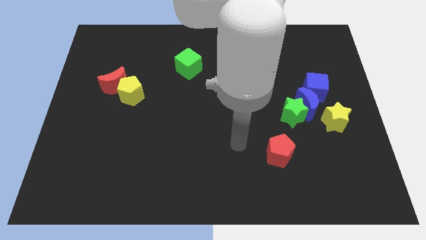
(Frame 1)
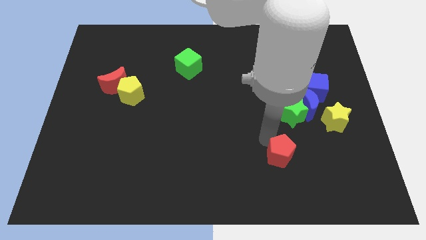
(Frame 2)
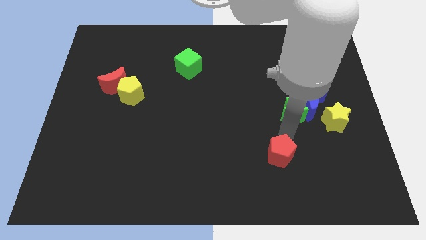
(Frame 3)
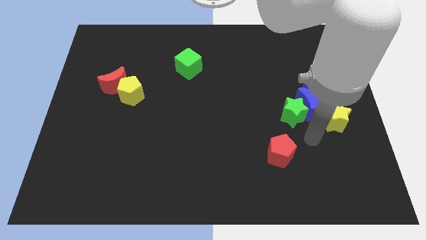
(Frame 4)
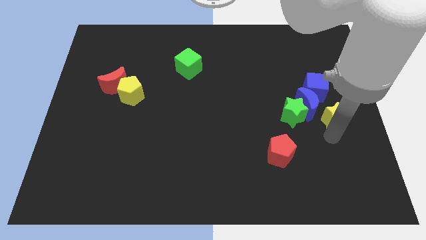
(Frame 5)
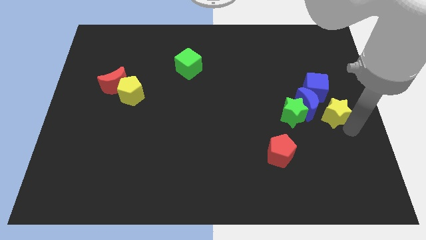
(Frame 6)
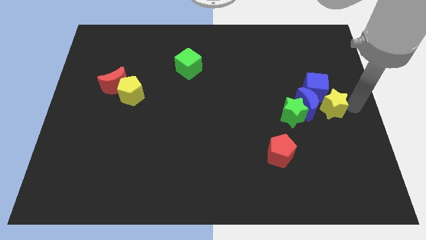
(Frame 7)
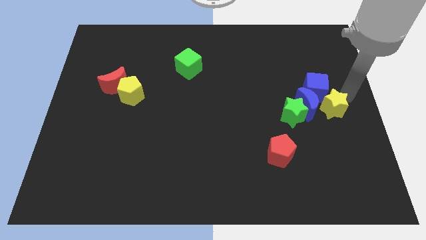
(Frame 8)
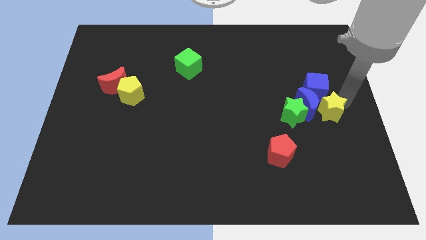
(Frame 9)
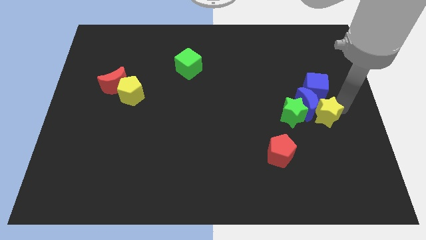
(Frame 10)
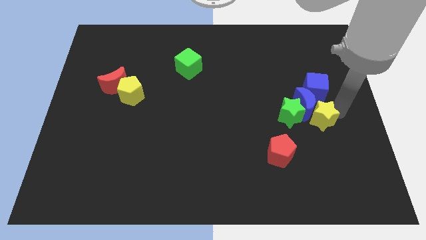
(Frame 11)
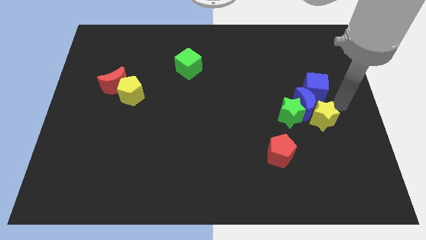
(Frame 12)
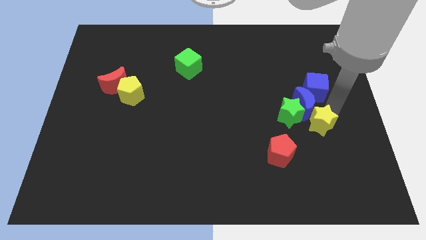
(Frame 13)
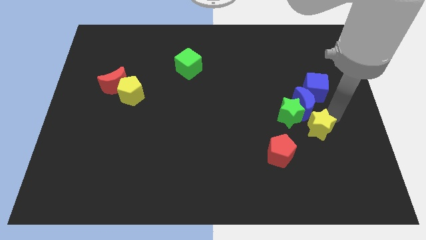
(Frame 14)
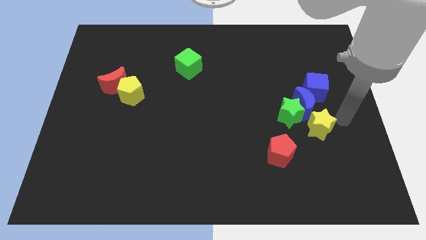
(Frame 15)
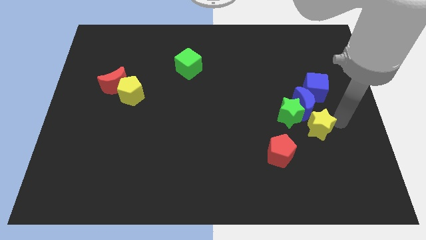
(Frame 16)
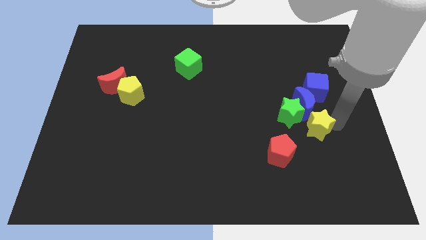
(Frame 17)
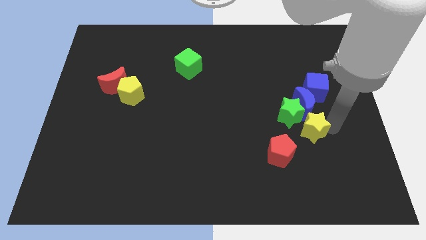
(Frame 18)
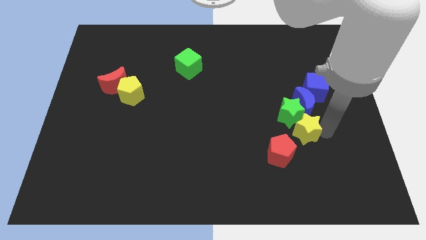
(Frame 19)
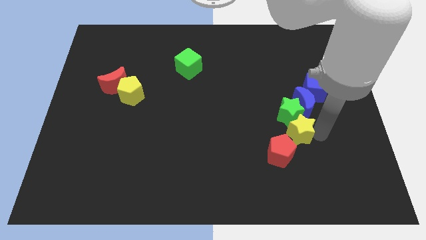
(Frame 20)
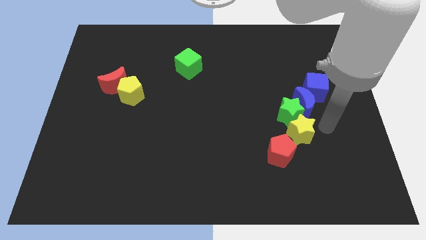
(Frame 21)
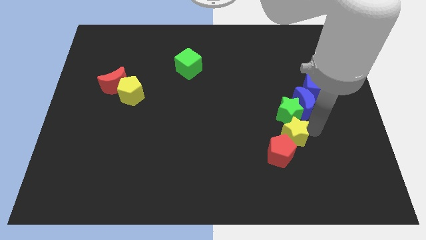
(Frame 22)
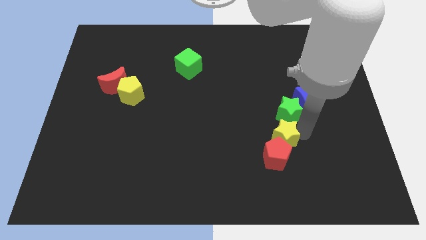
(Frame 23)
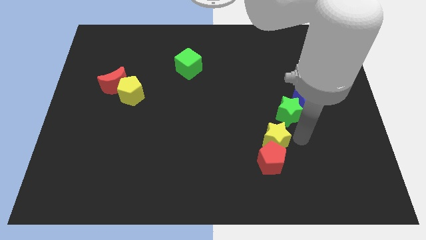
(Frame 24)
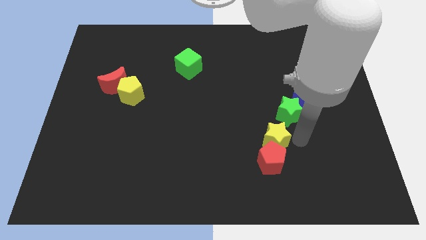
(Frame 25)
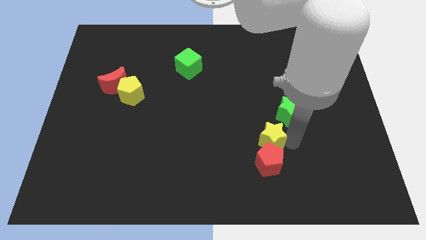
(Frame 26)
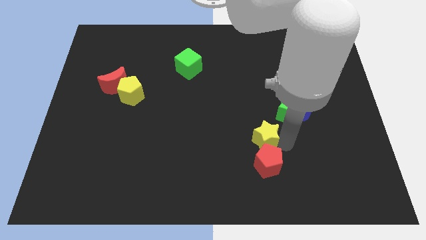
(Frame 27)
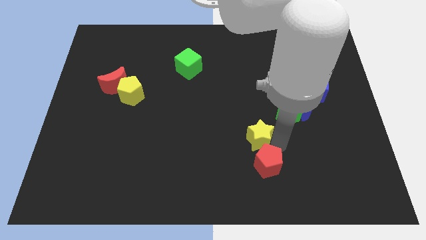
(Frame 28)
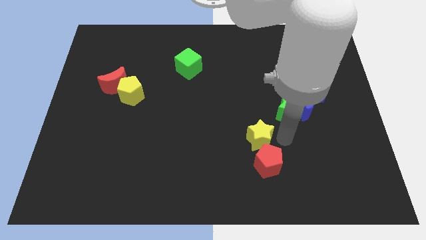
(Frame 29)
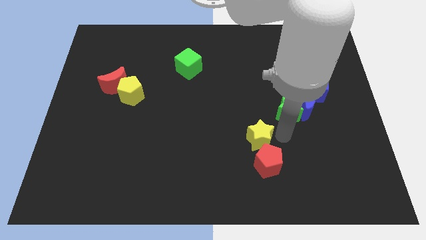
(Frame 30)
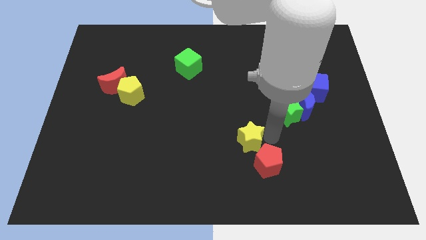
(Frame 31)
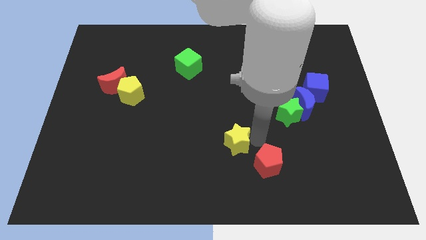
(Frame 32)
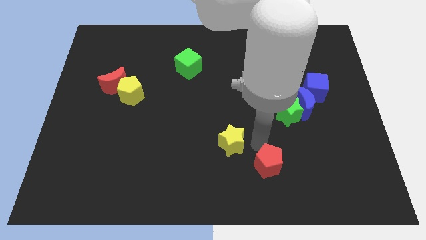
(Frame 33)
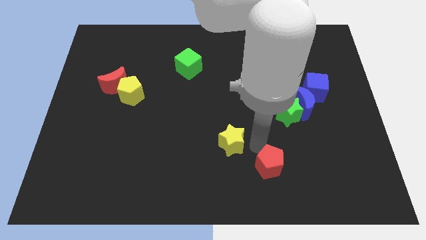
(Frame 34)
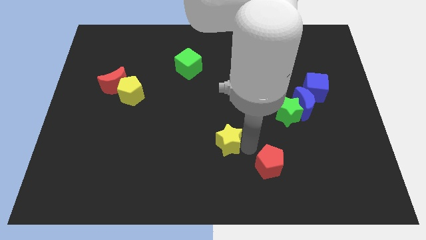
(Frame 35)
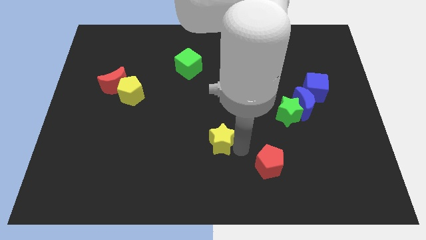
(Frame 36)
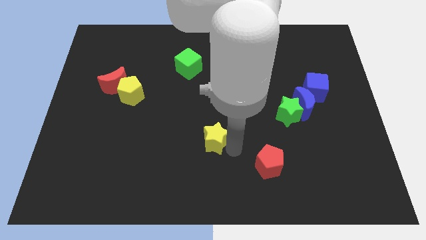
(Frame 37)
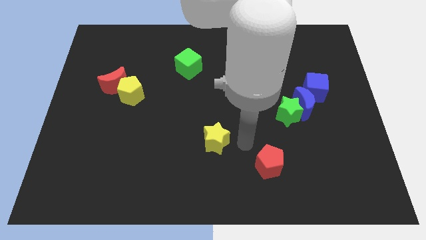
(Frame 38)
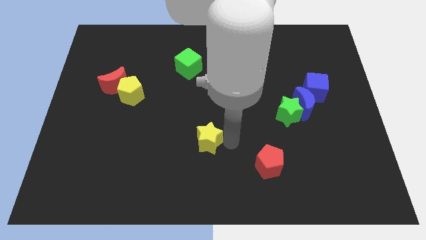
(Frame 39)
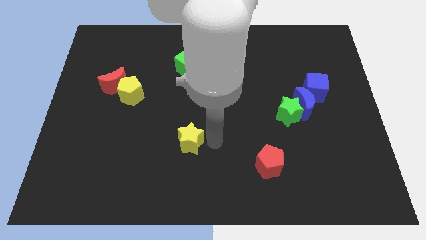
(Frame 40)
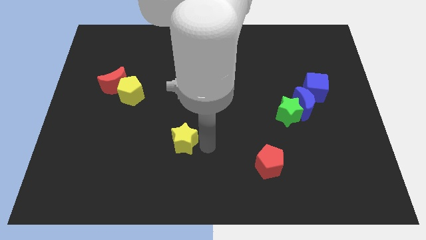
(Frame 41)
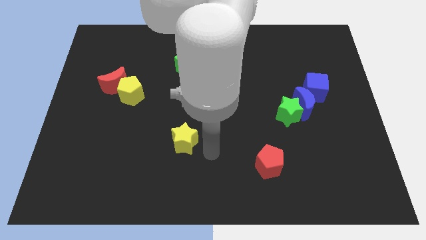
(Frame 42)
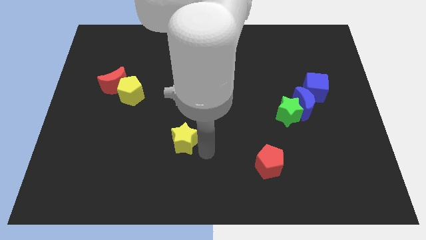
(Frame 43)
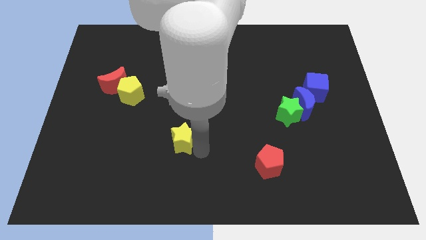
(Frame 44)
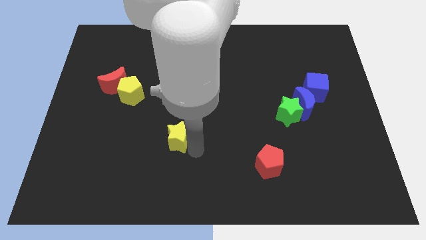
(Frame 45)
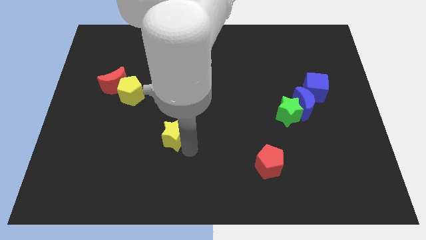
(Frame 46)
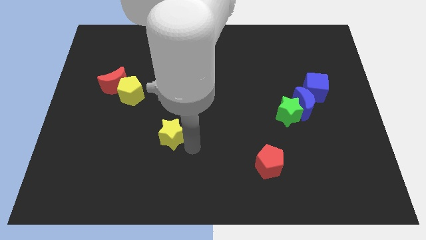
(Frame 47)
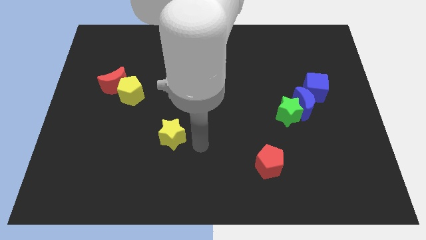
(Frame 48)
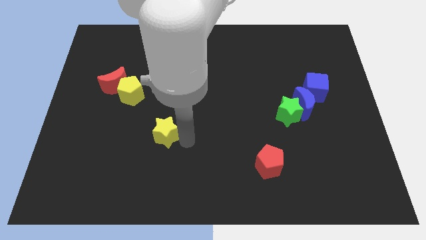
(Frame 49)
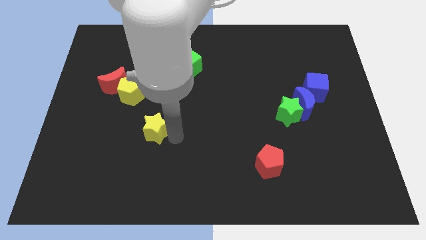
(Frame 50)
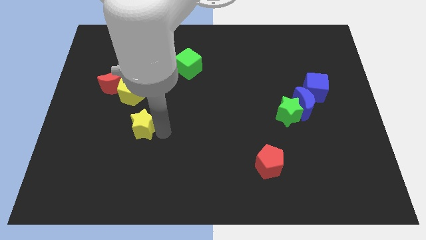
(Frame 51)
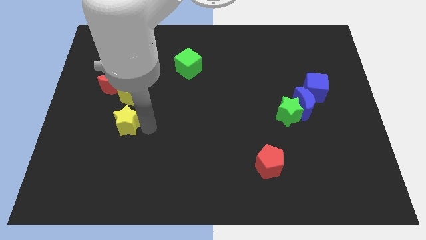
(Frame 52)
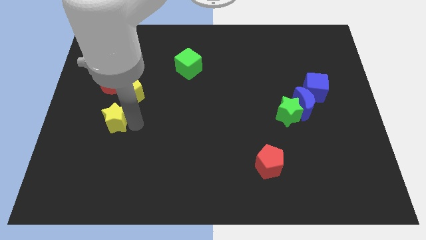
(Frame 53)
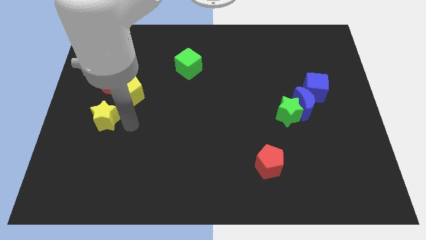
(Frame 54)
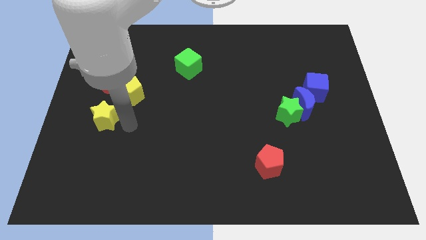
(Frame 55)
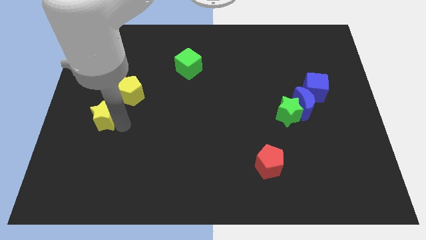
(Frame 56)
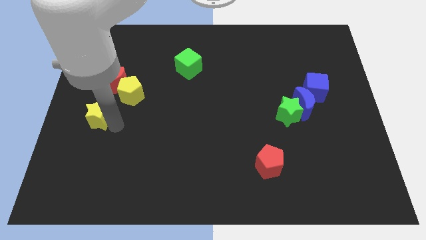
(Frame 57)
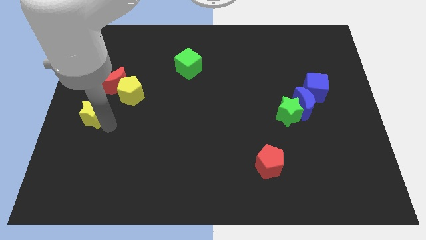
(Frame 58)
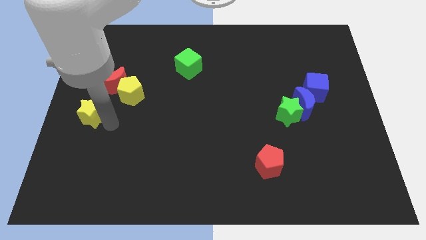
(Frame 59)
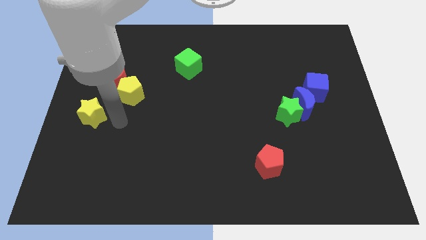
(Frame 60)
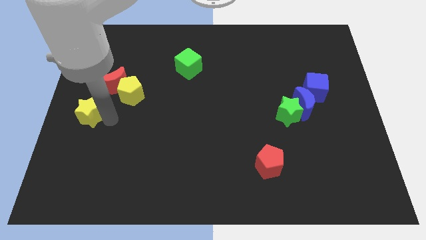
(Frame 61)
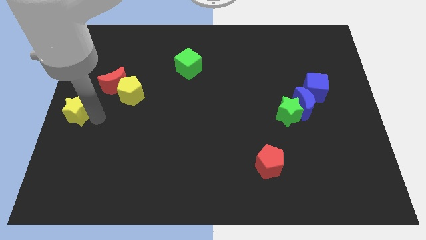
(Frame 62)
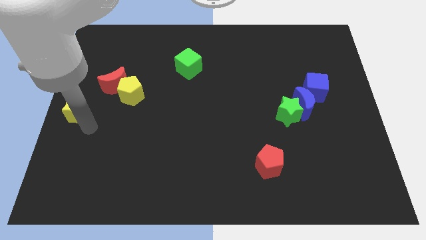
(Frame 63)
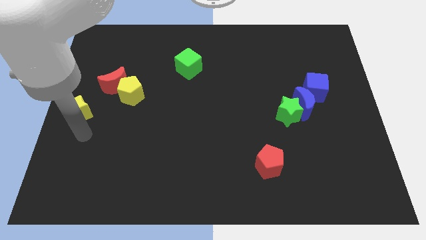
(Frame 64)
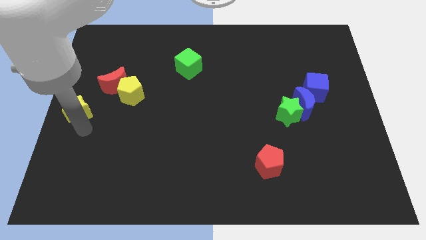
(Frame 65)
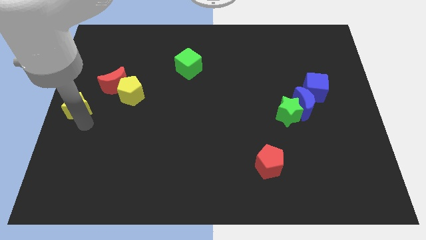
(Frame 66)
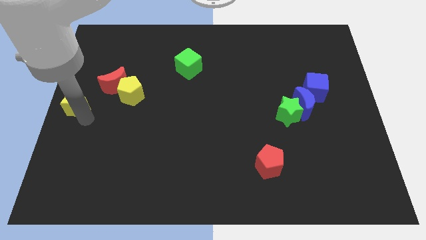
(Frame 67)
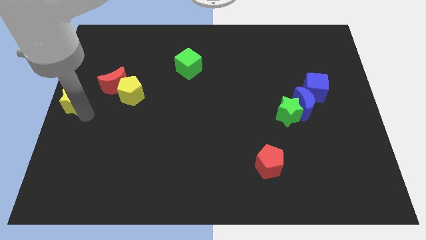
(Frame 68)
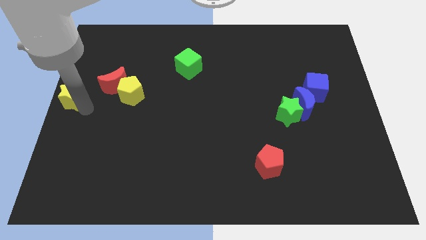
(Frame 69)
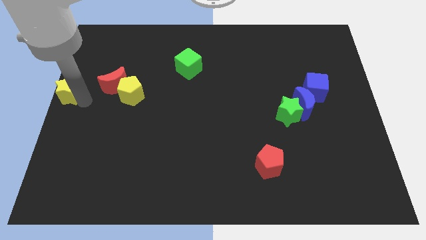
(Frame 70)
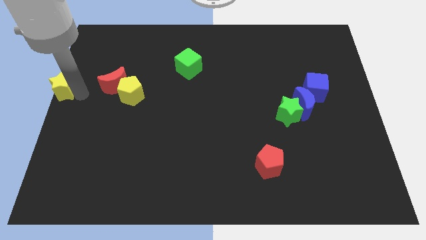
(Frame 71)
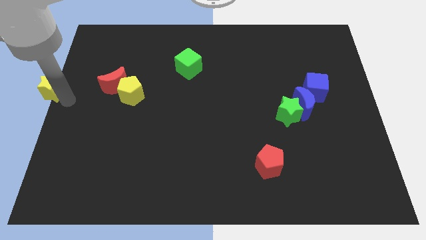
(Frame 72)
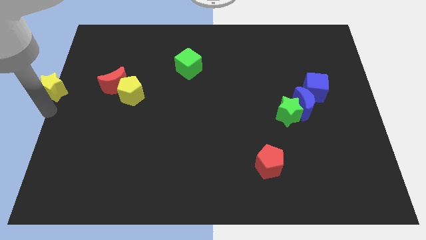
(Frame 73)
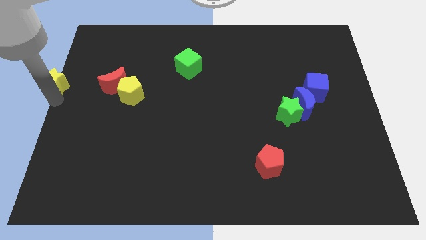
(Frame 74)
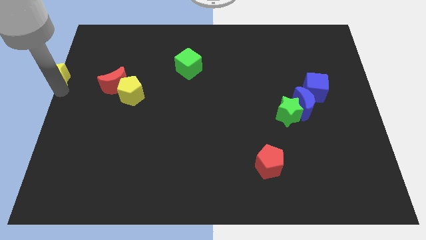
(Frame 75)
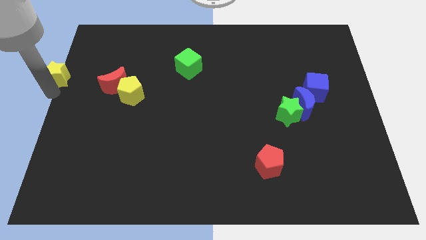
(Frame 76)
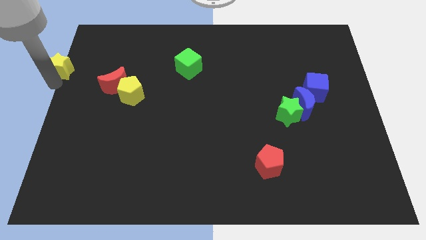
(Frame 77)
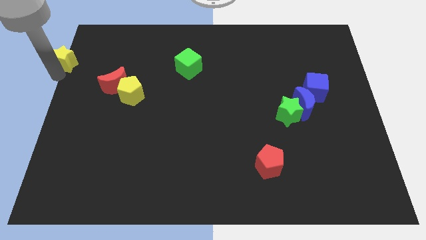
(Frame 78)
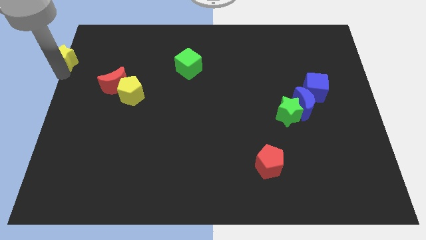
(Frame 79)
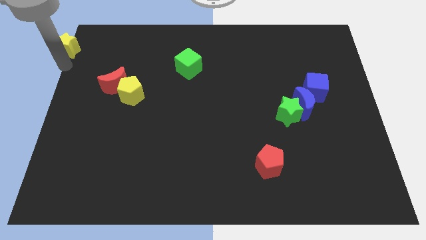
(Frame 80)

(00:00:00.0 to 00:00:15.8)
push the yellow star to the top left
